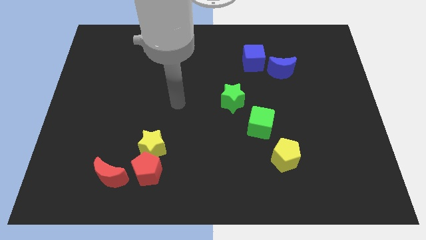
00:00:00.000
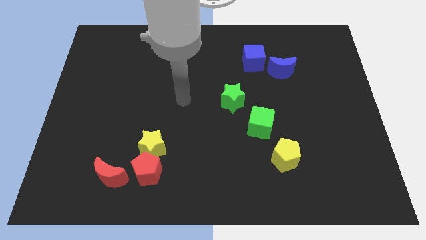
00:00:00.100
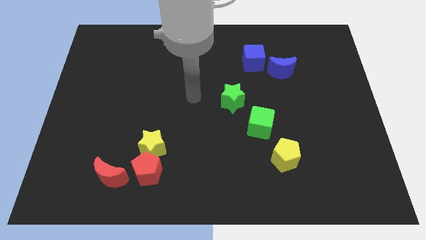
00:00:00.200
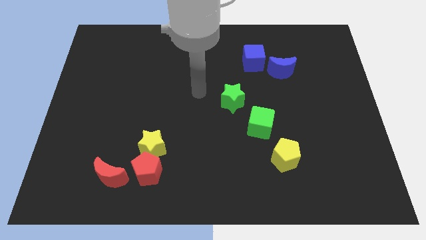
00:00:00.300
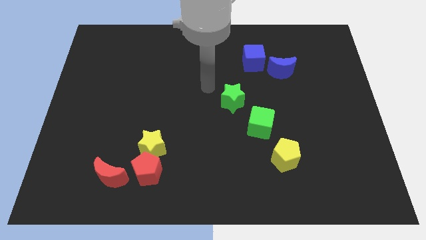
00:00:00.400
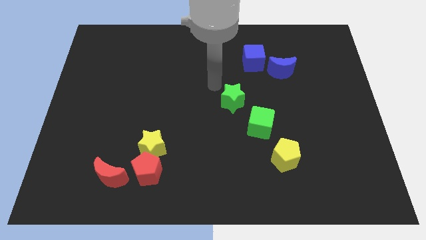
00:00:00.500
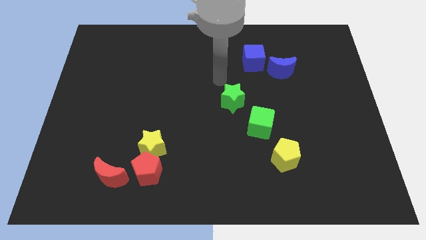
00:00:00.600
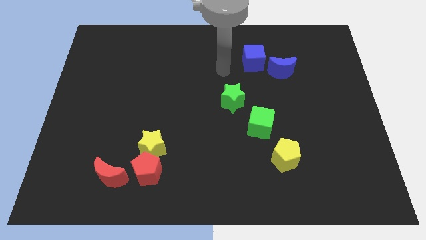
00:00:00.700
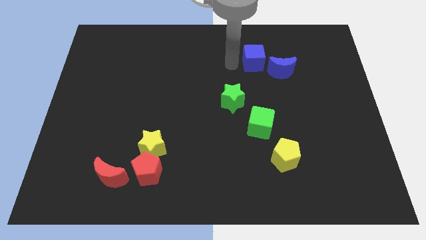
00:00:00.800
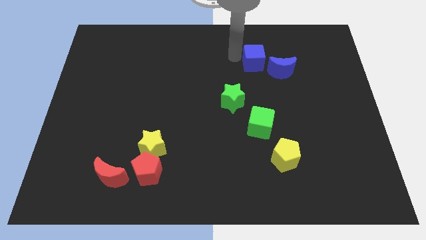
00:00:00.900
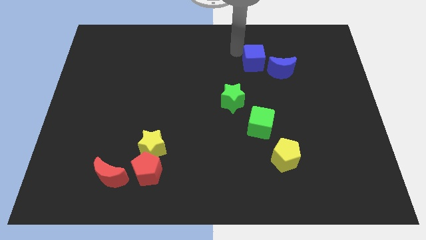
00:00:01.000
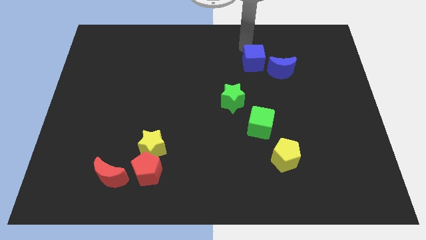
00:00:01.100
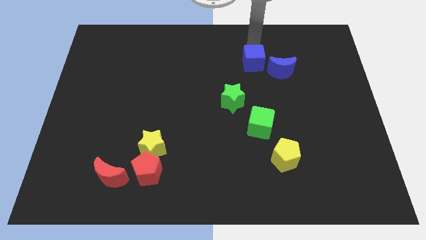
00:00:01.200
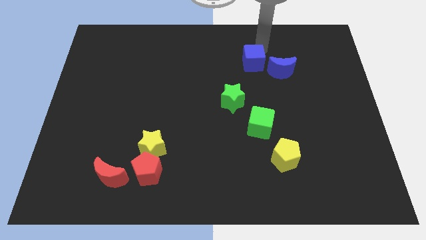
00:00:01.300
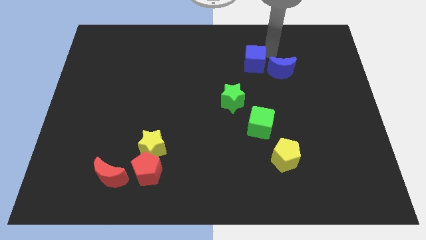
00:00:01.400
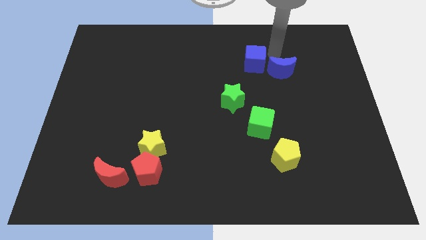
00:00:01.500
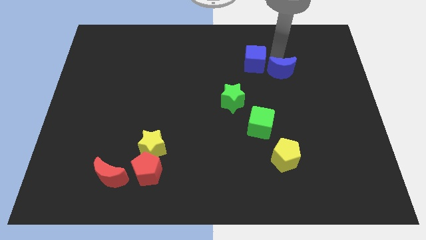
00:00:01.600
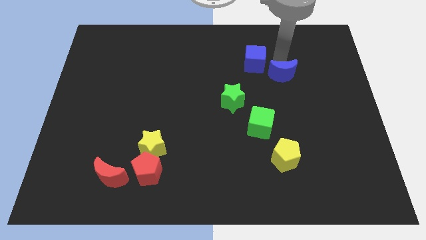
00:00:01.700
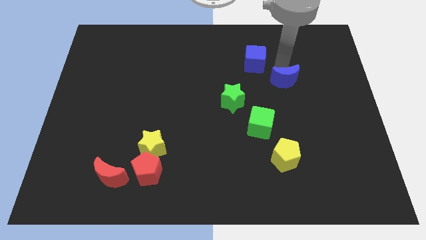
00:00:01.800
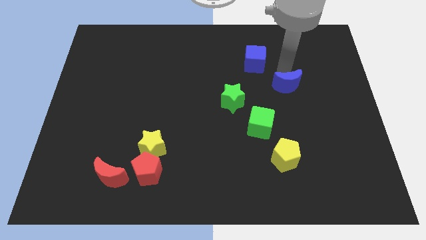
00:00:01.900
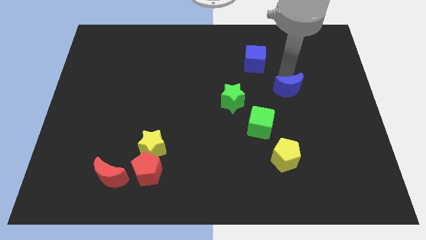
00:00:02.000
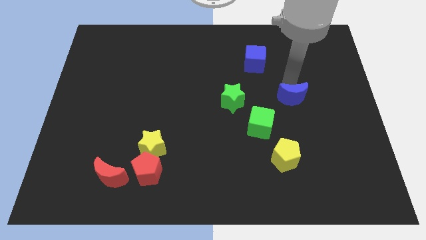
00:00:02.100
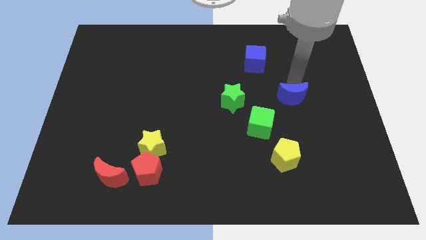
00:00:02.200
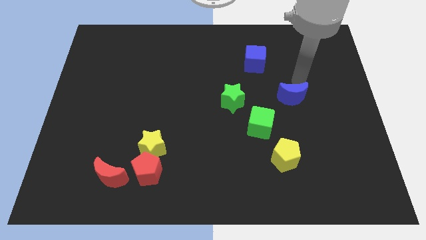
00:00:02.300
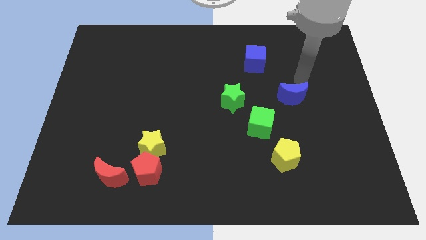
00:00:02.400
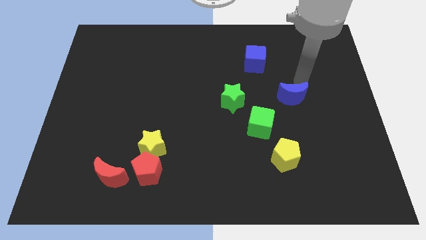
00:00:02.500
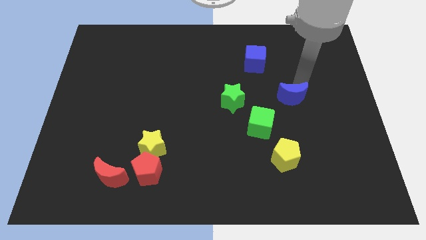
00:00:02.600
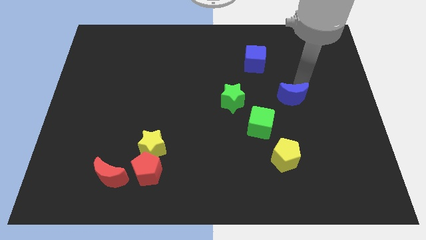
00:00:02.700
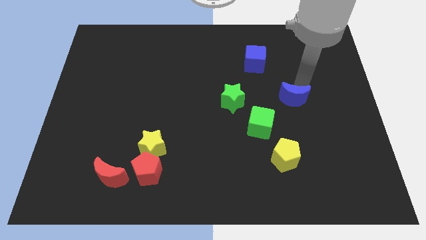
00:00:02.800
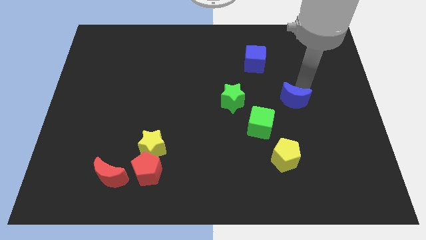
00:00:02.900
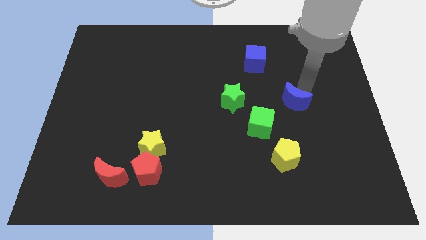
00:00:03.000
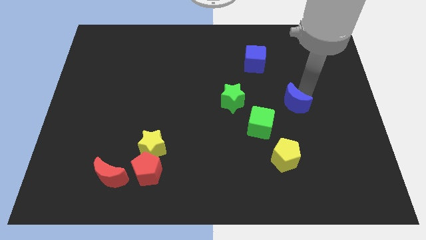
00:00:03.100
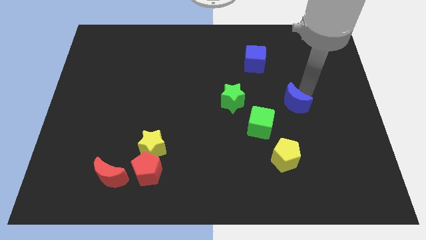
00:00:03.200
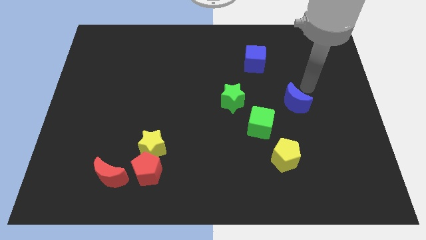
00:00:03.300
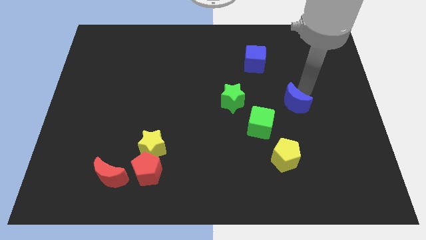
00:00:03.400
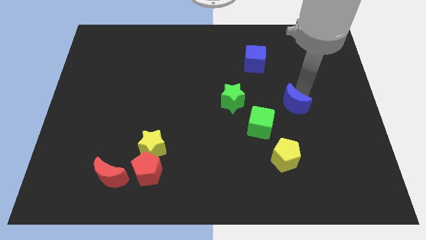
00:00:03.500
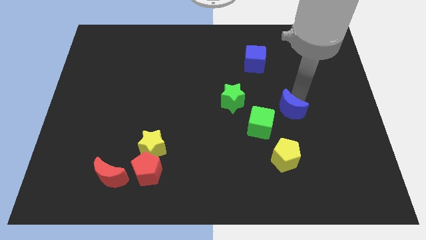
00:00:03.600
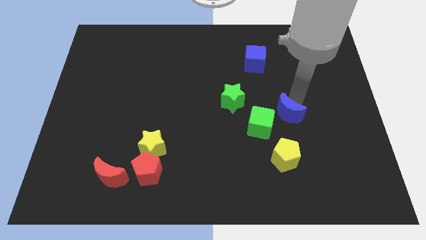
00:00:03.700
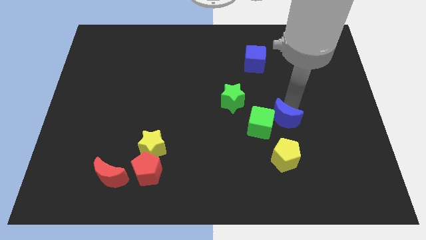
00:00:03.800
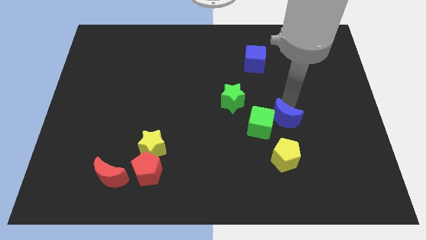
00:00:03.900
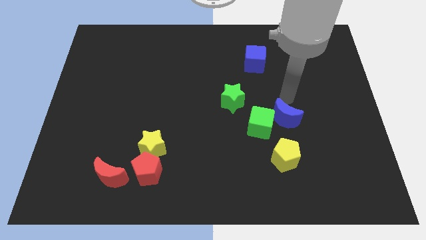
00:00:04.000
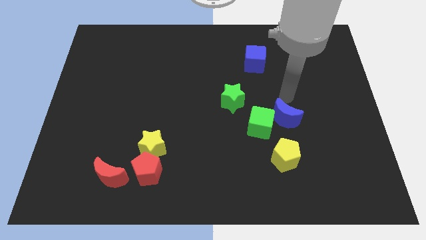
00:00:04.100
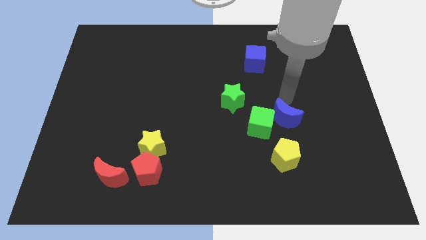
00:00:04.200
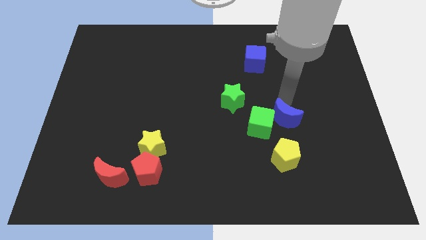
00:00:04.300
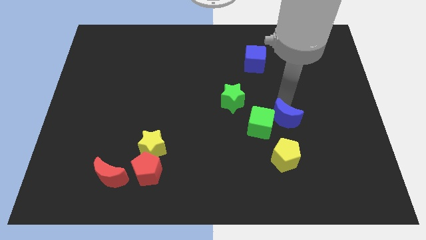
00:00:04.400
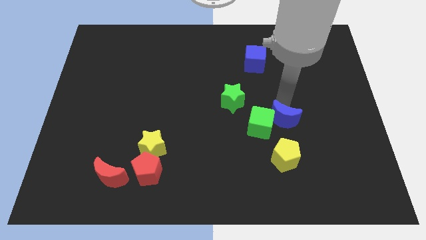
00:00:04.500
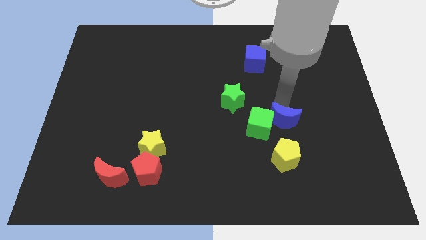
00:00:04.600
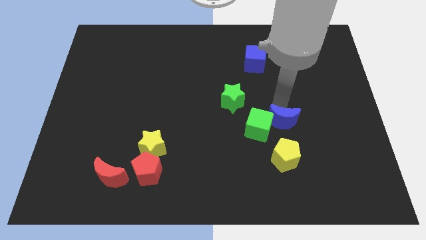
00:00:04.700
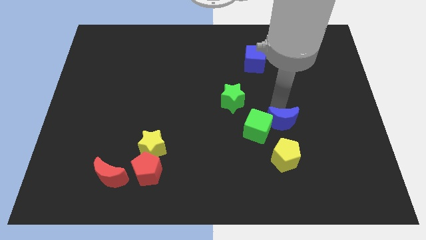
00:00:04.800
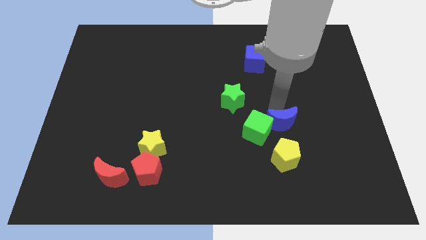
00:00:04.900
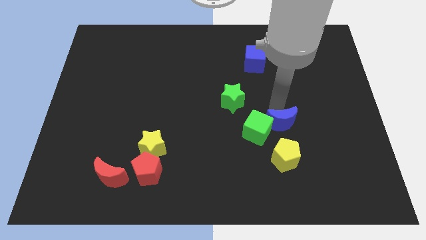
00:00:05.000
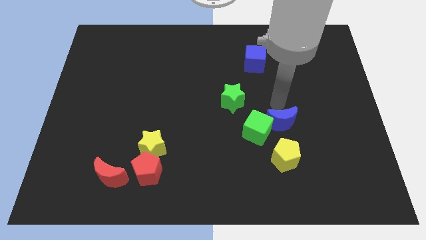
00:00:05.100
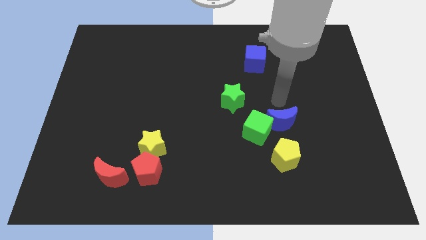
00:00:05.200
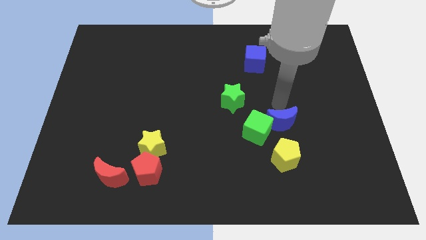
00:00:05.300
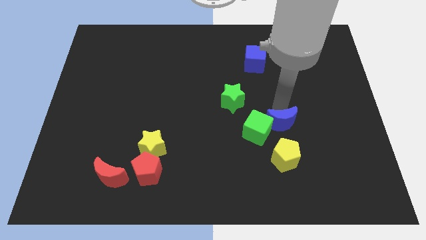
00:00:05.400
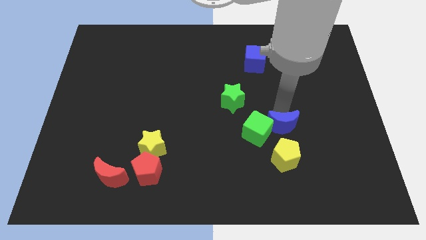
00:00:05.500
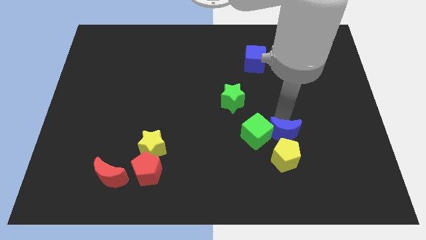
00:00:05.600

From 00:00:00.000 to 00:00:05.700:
move the blue moon close to the yellow pentagon

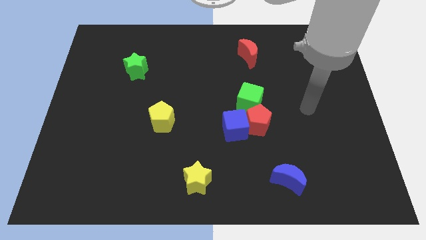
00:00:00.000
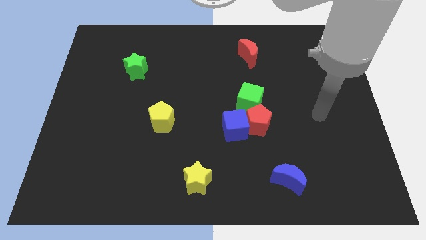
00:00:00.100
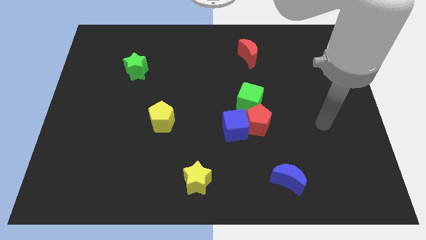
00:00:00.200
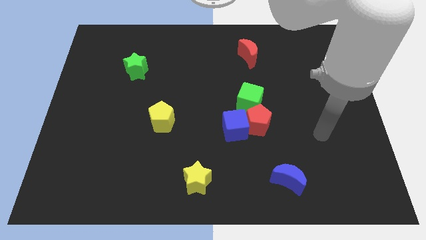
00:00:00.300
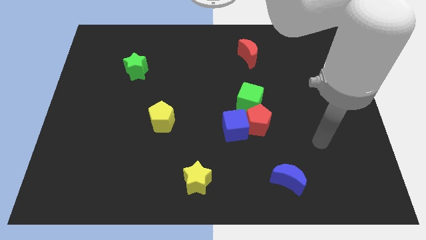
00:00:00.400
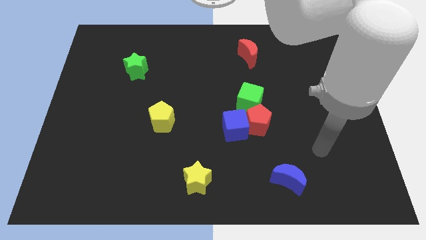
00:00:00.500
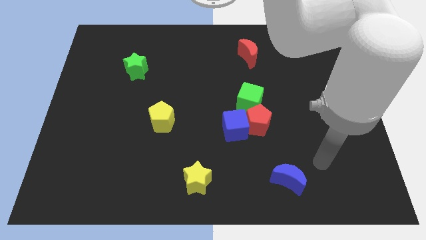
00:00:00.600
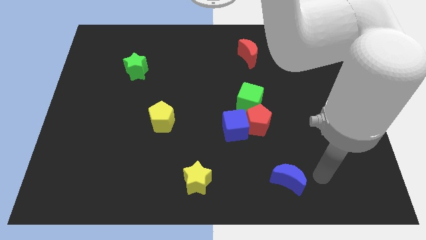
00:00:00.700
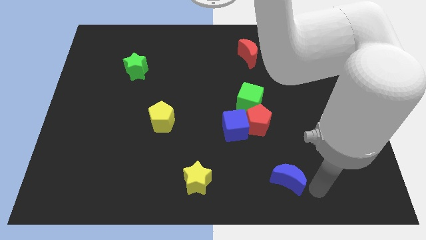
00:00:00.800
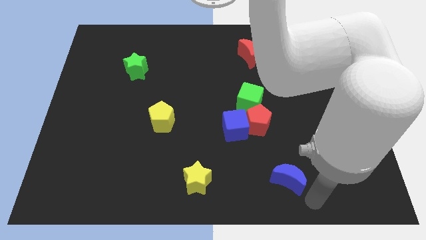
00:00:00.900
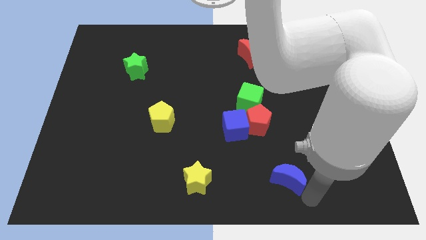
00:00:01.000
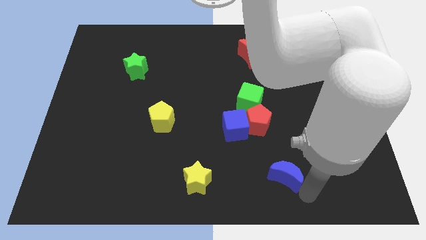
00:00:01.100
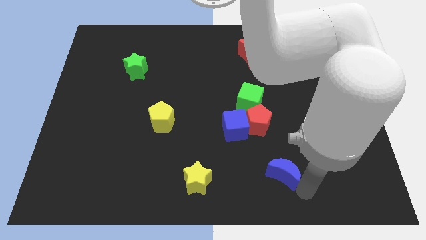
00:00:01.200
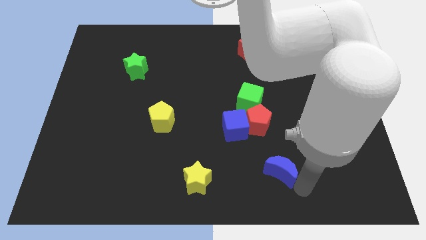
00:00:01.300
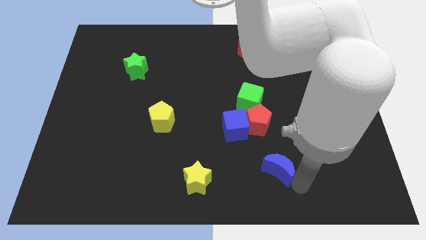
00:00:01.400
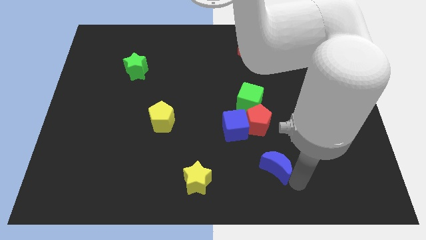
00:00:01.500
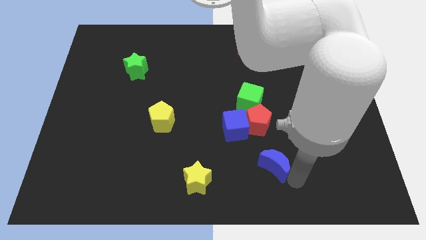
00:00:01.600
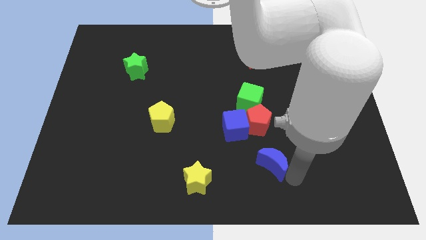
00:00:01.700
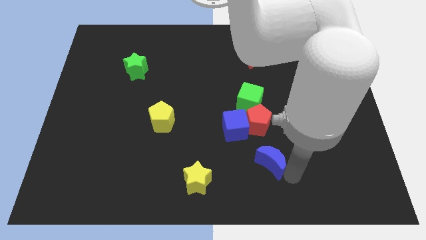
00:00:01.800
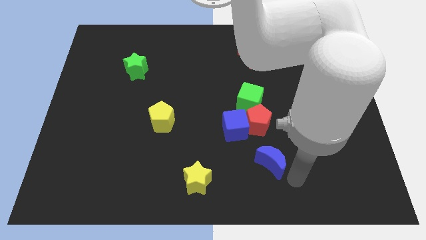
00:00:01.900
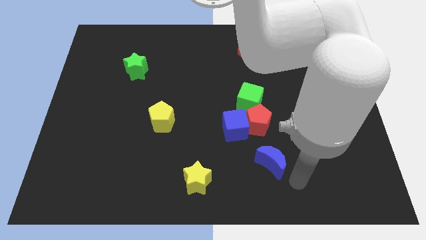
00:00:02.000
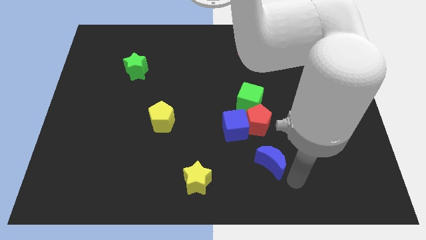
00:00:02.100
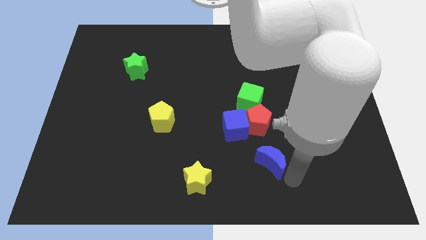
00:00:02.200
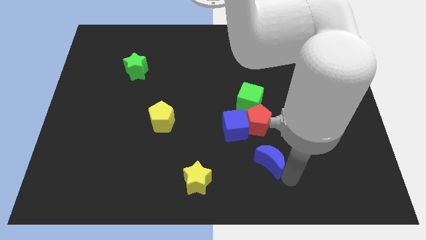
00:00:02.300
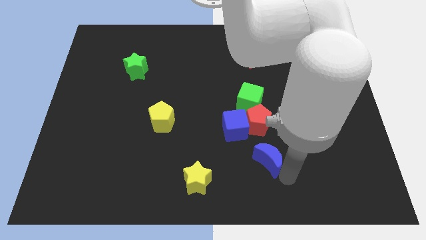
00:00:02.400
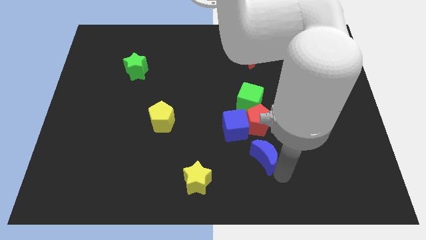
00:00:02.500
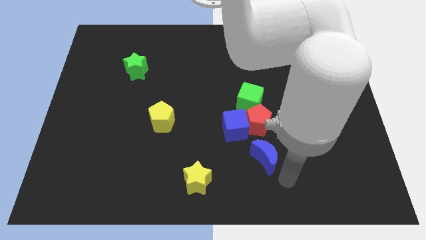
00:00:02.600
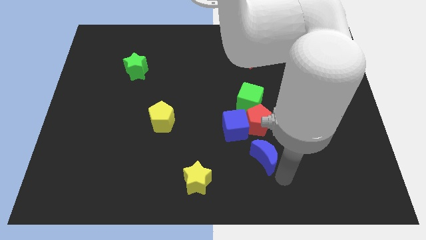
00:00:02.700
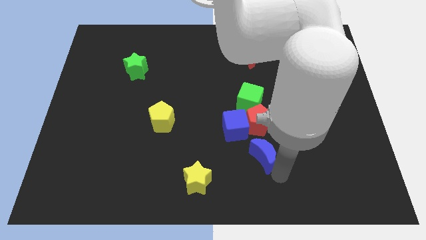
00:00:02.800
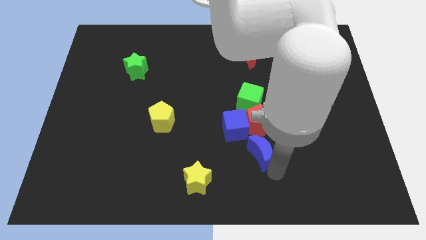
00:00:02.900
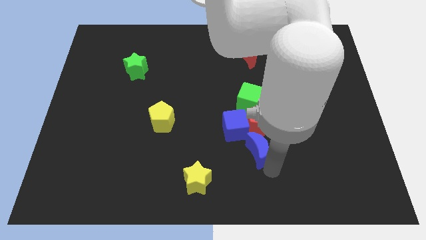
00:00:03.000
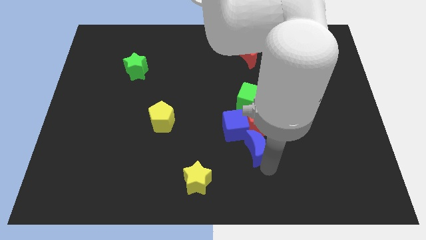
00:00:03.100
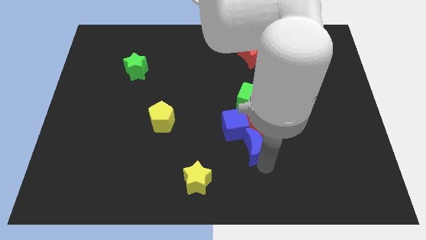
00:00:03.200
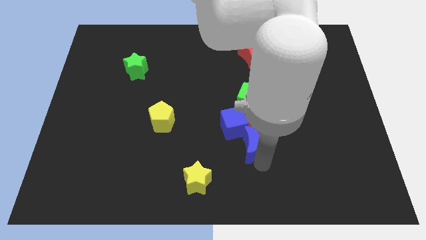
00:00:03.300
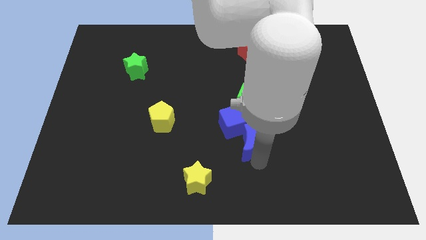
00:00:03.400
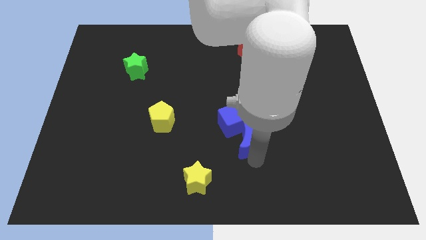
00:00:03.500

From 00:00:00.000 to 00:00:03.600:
move the blue moon close to the blue cube
